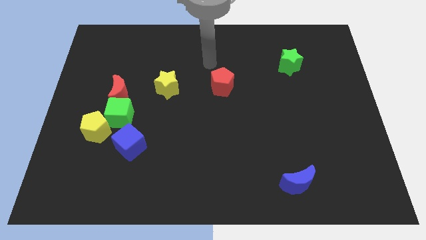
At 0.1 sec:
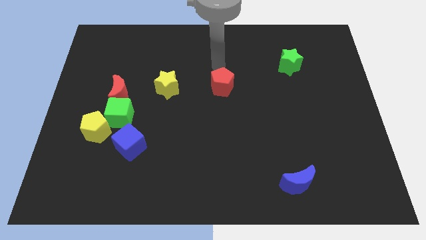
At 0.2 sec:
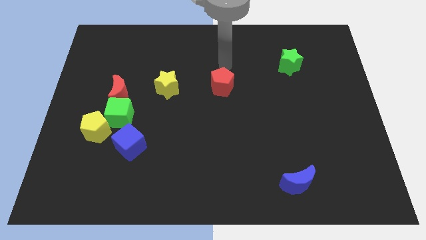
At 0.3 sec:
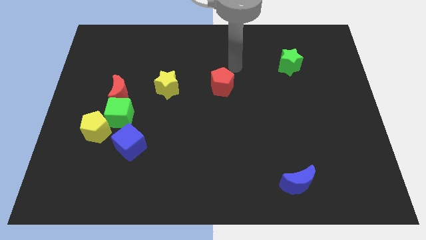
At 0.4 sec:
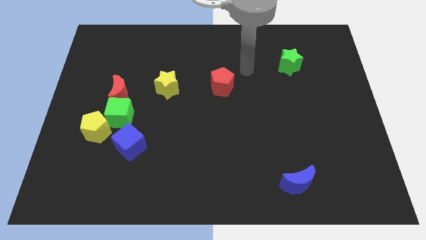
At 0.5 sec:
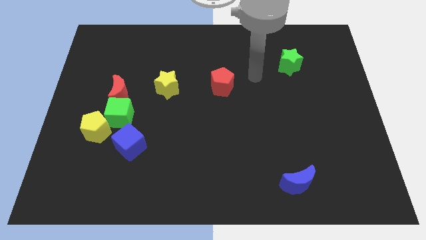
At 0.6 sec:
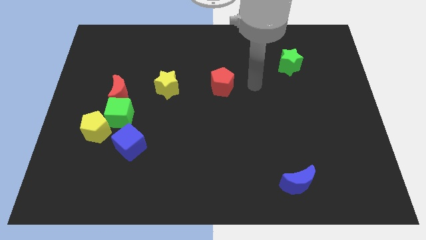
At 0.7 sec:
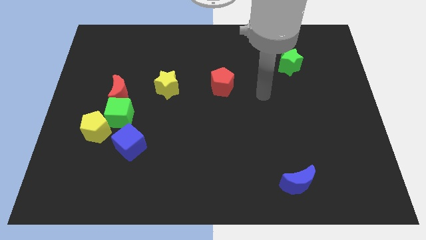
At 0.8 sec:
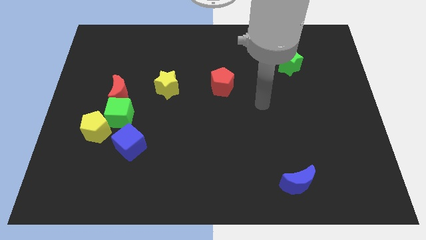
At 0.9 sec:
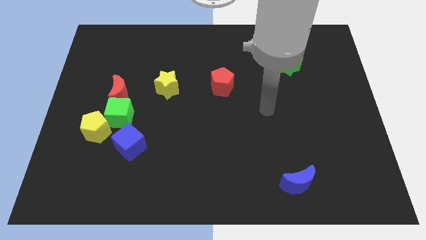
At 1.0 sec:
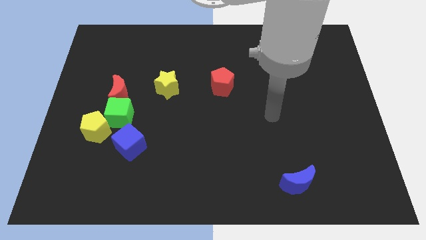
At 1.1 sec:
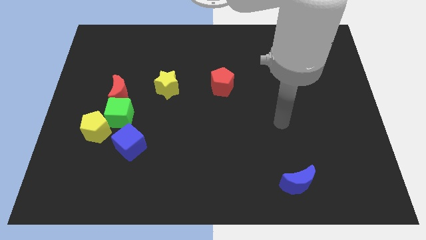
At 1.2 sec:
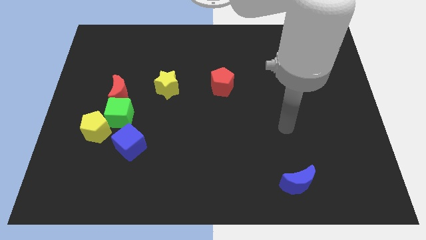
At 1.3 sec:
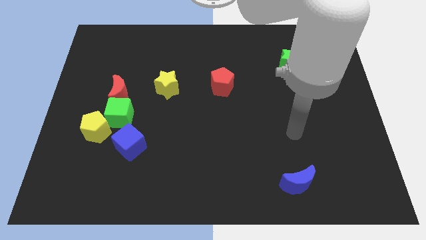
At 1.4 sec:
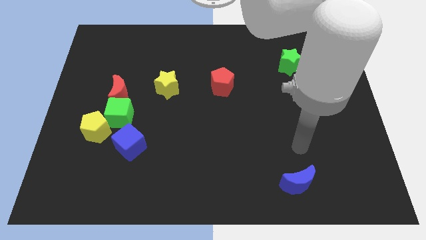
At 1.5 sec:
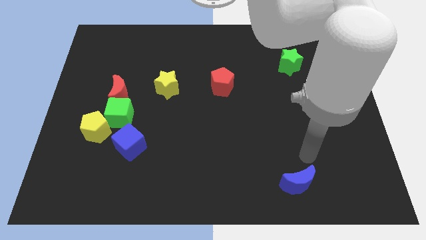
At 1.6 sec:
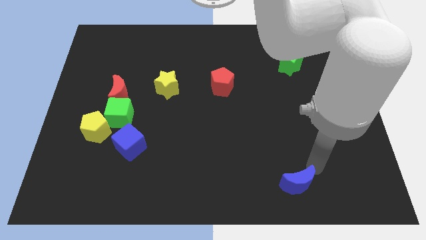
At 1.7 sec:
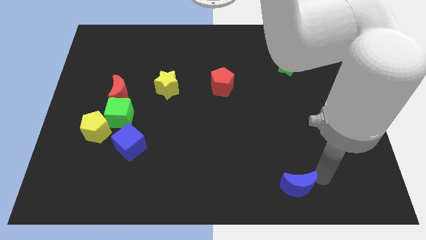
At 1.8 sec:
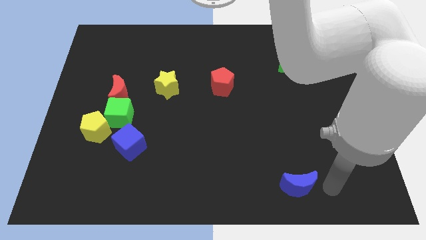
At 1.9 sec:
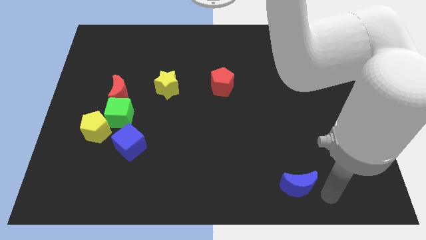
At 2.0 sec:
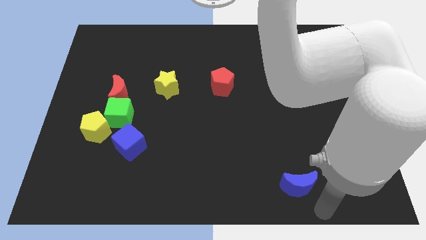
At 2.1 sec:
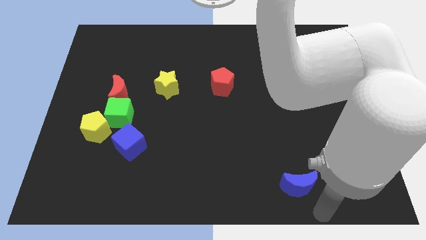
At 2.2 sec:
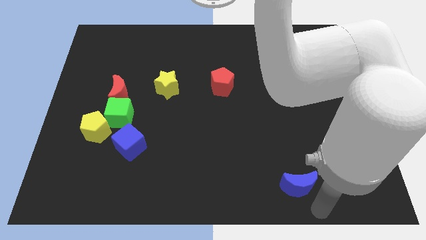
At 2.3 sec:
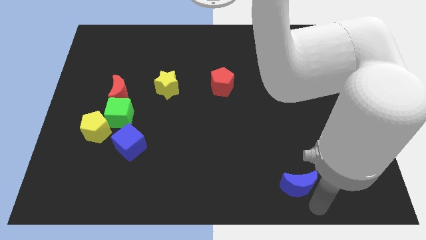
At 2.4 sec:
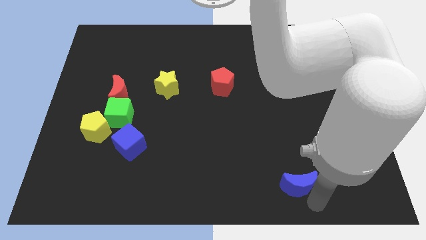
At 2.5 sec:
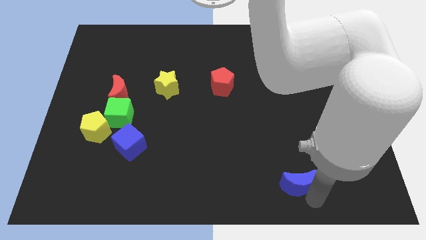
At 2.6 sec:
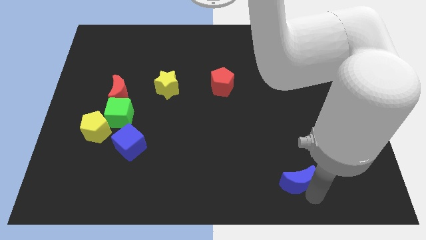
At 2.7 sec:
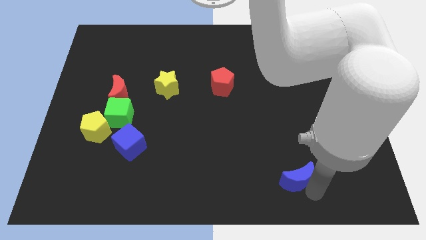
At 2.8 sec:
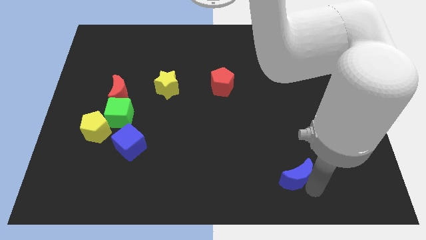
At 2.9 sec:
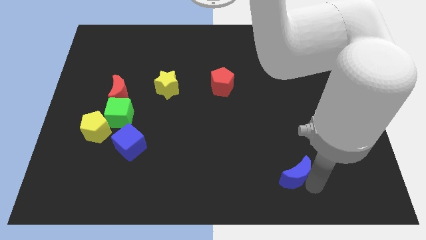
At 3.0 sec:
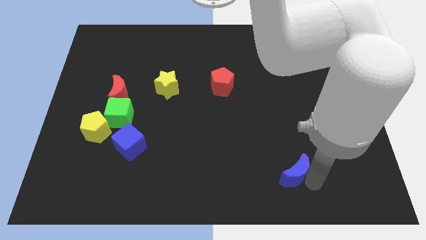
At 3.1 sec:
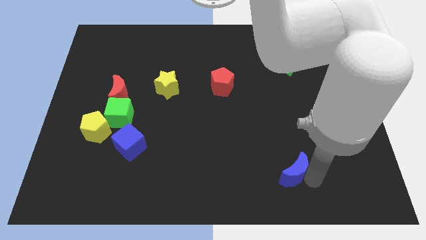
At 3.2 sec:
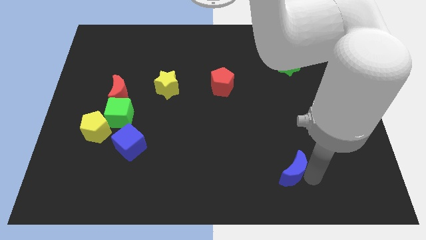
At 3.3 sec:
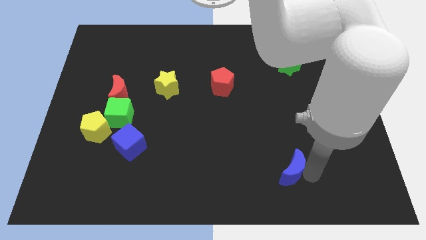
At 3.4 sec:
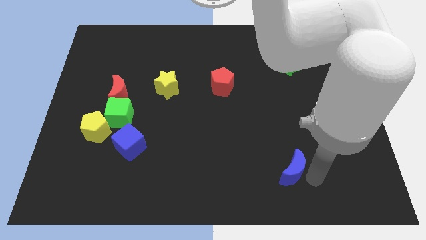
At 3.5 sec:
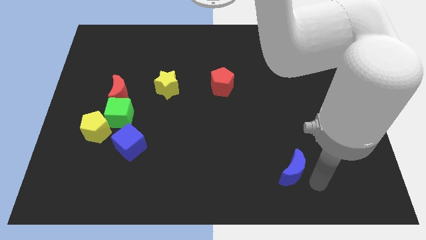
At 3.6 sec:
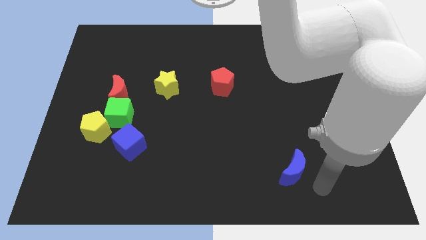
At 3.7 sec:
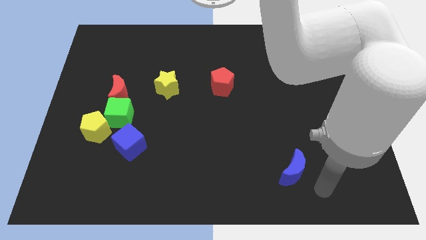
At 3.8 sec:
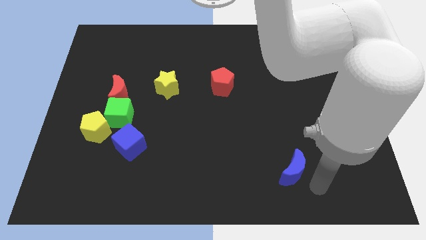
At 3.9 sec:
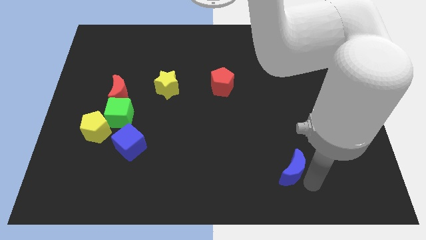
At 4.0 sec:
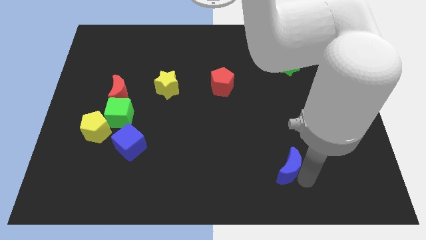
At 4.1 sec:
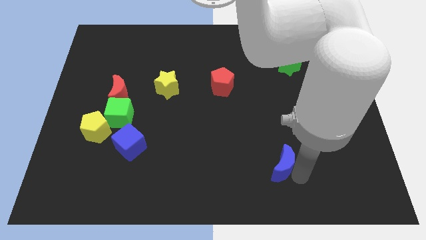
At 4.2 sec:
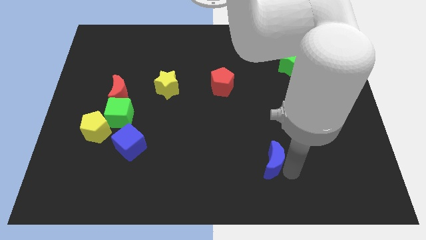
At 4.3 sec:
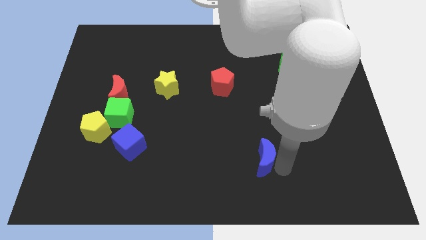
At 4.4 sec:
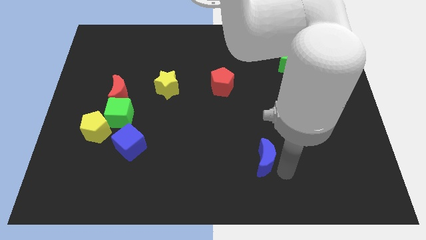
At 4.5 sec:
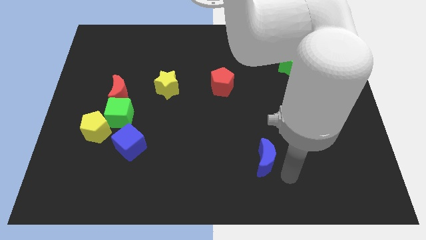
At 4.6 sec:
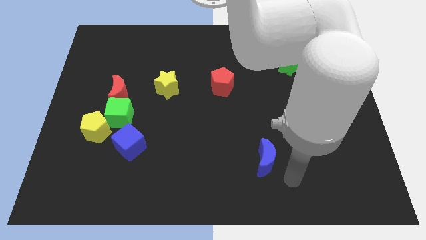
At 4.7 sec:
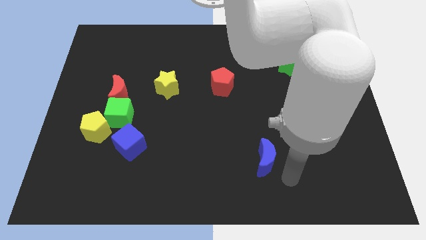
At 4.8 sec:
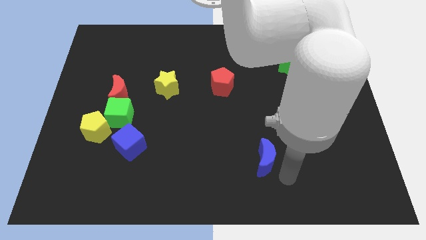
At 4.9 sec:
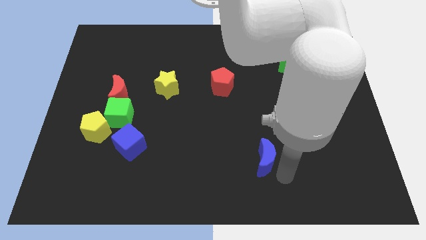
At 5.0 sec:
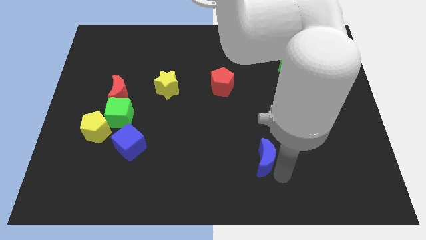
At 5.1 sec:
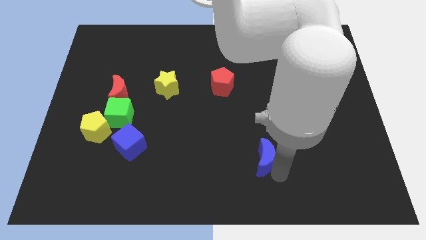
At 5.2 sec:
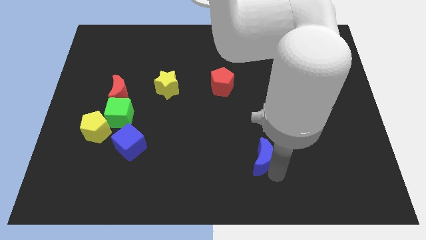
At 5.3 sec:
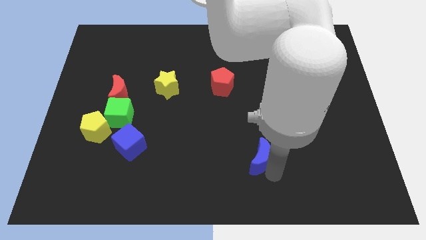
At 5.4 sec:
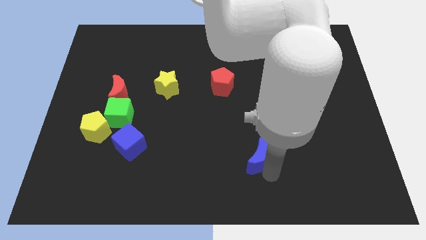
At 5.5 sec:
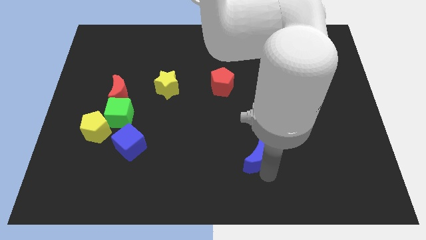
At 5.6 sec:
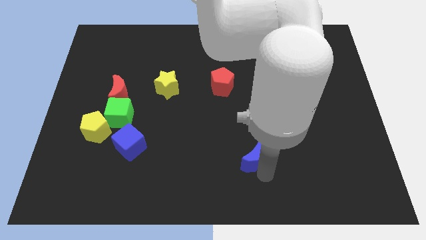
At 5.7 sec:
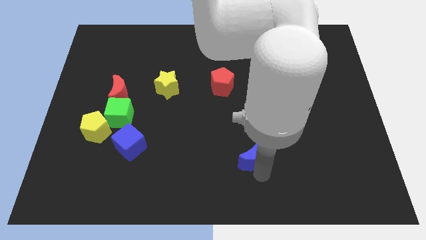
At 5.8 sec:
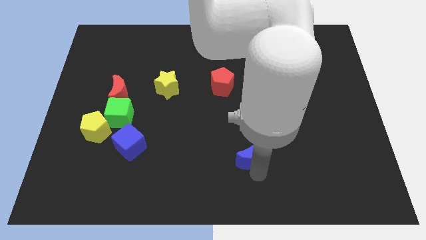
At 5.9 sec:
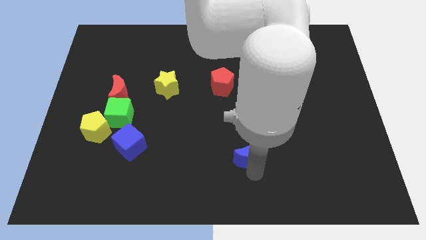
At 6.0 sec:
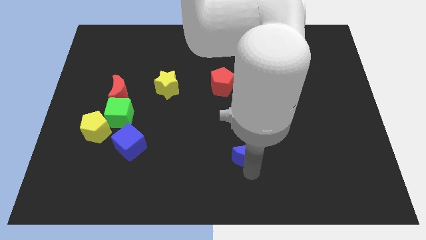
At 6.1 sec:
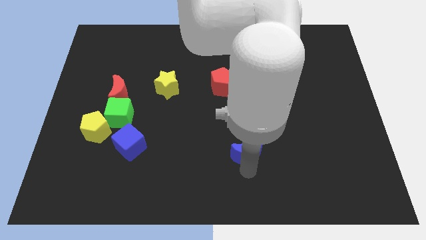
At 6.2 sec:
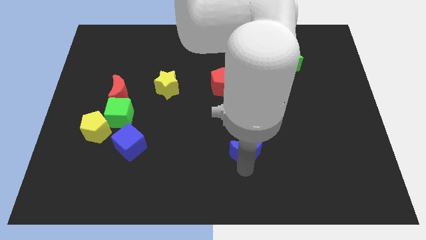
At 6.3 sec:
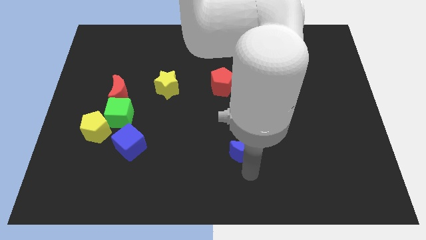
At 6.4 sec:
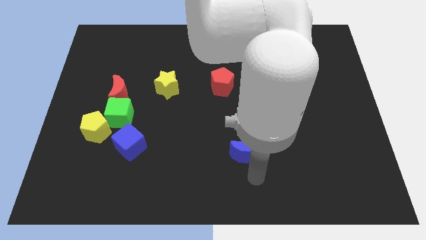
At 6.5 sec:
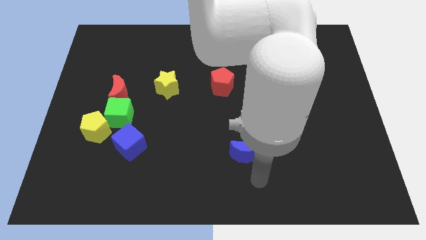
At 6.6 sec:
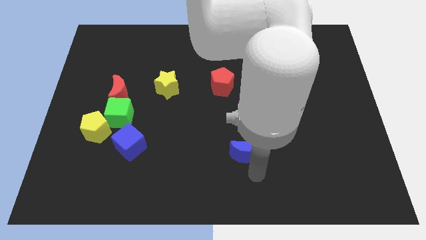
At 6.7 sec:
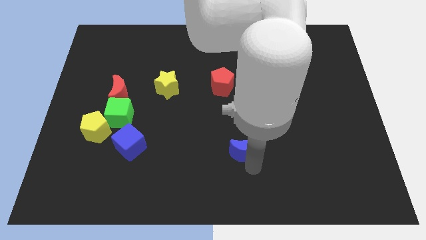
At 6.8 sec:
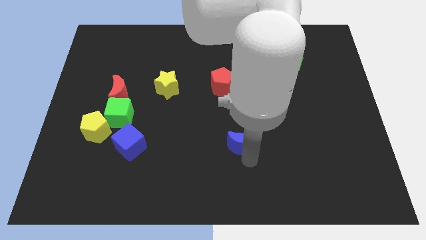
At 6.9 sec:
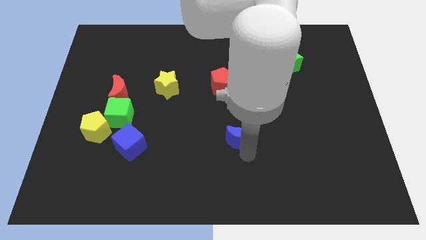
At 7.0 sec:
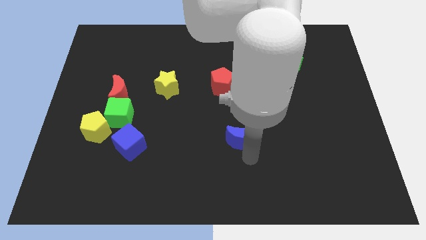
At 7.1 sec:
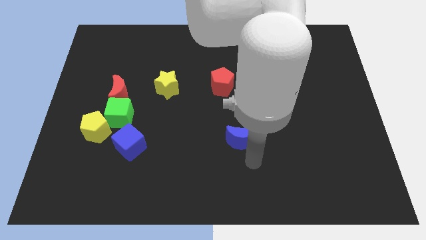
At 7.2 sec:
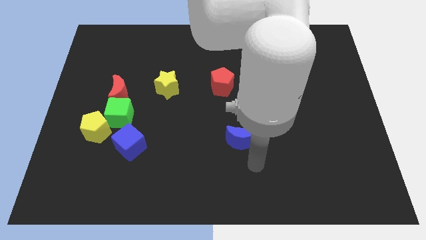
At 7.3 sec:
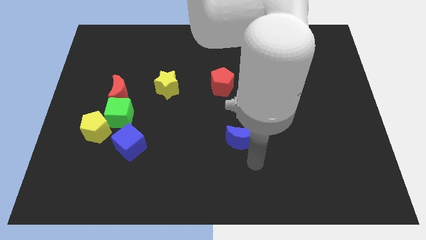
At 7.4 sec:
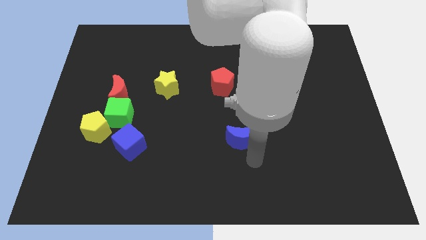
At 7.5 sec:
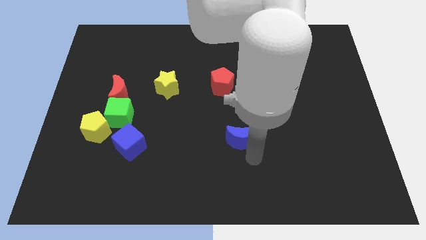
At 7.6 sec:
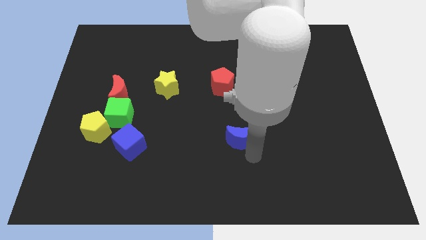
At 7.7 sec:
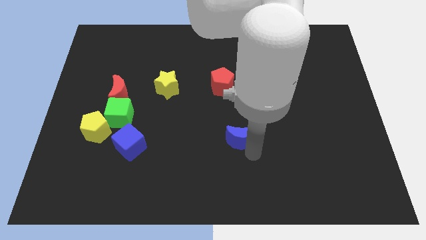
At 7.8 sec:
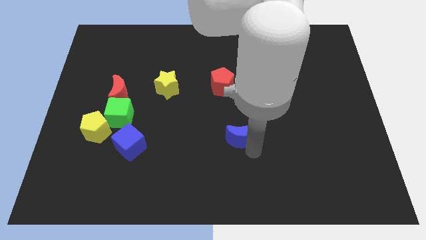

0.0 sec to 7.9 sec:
push the blue moon to the middle of the board
